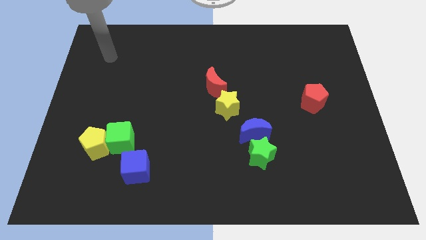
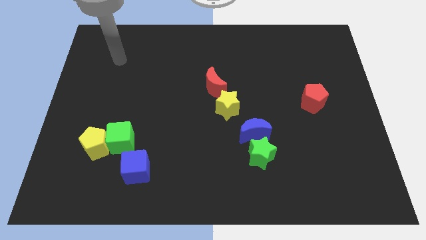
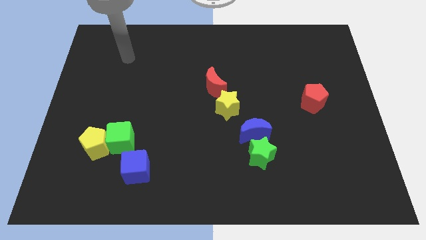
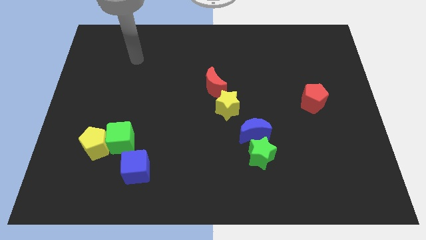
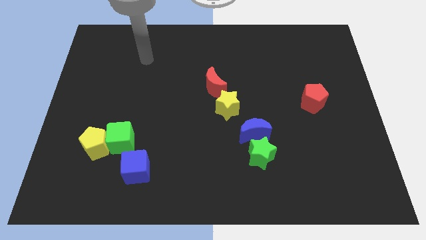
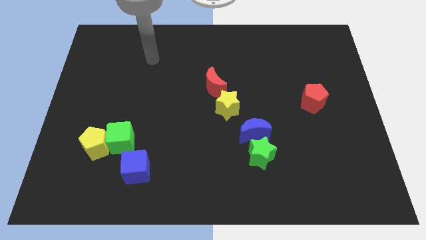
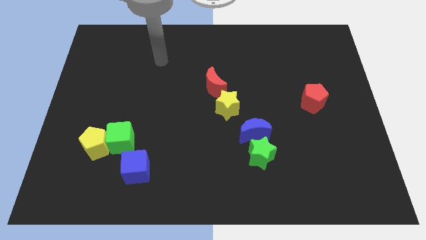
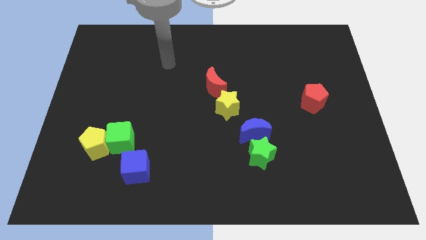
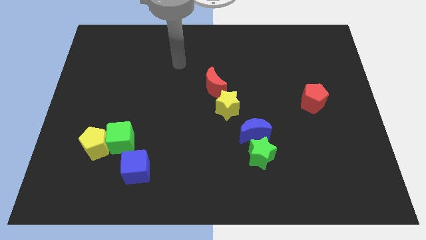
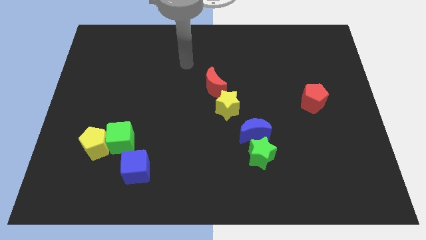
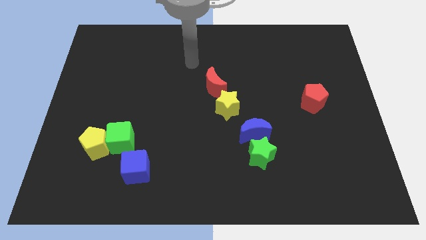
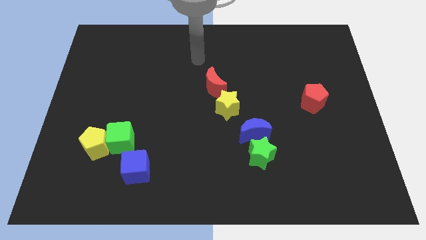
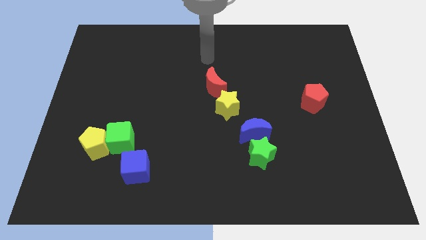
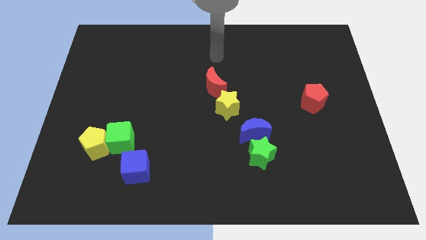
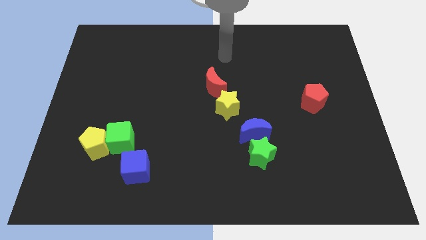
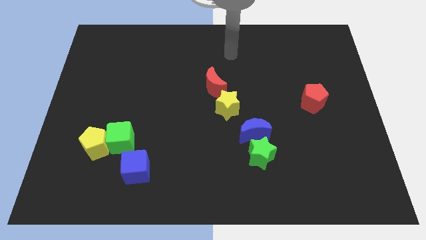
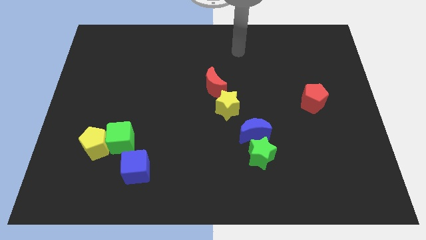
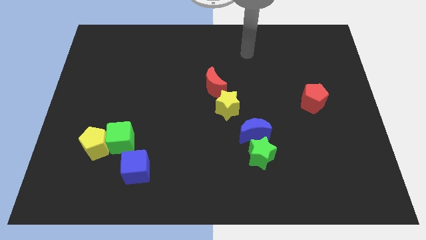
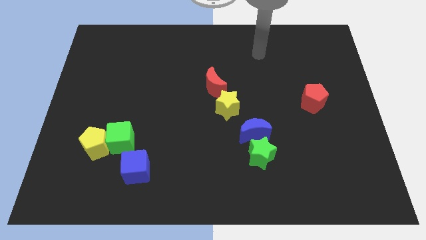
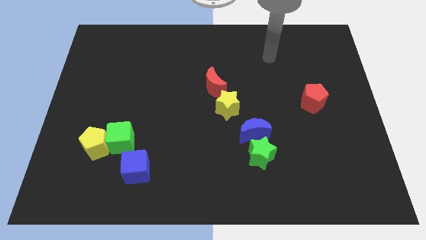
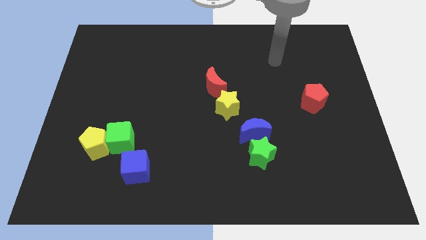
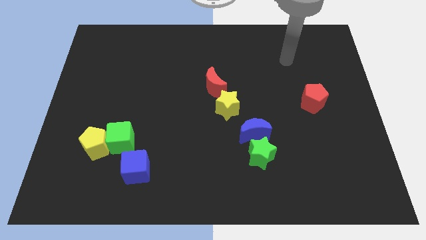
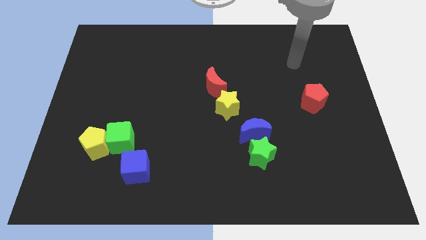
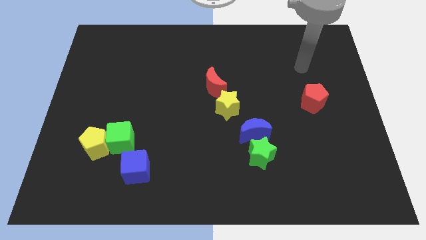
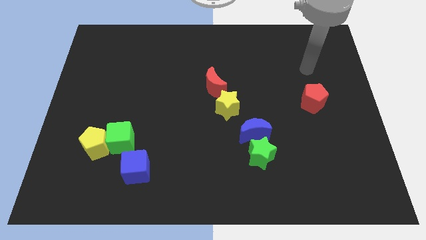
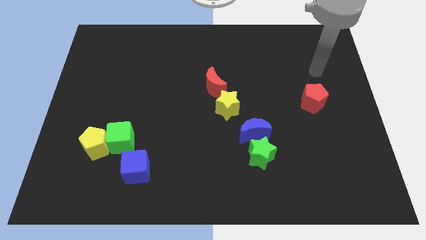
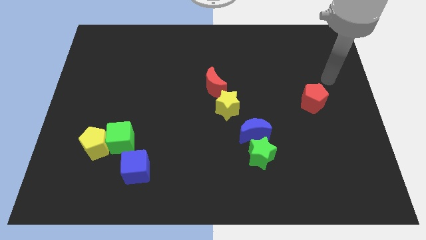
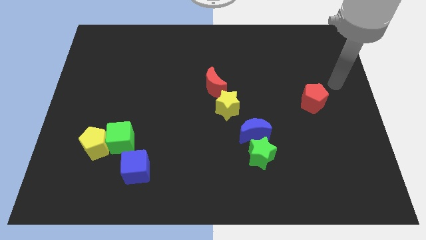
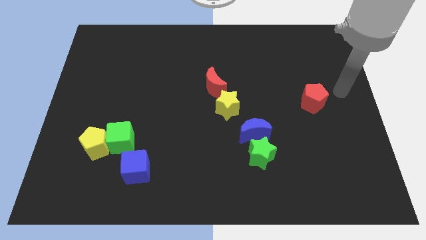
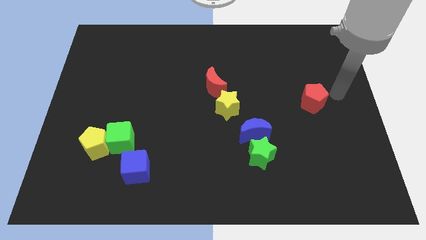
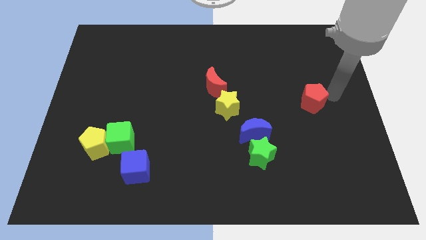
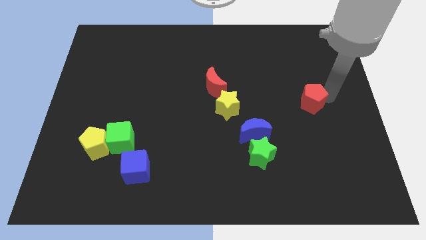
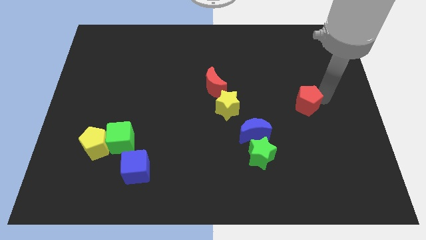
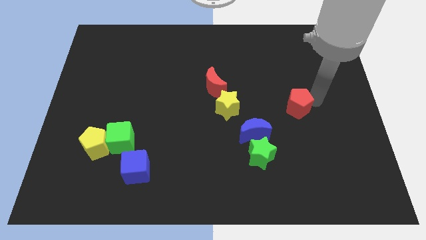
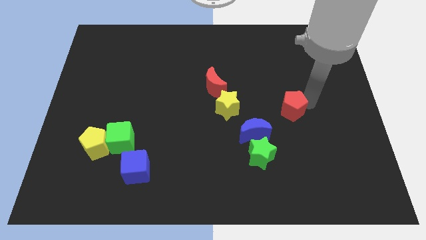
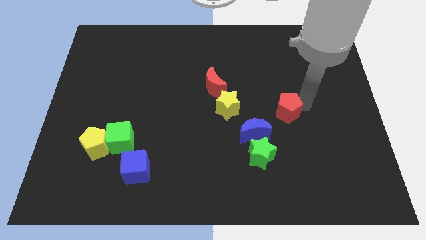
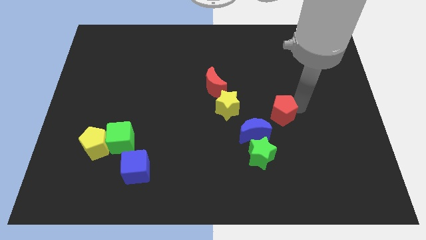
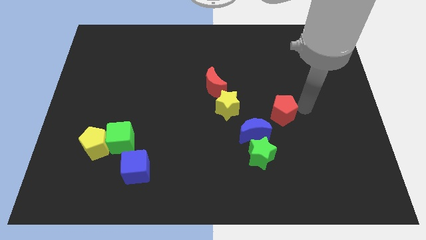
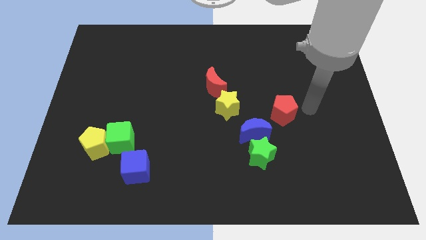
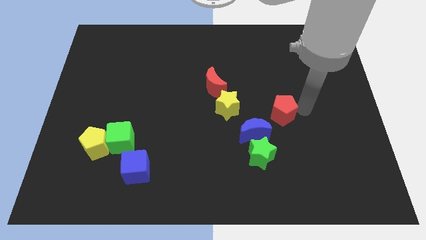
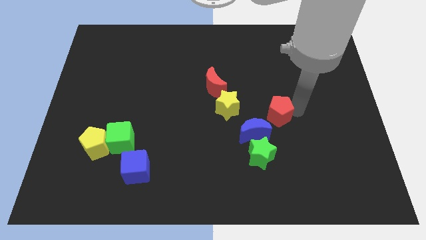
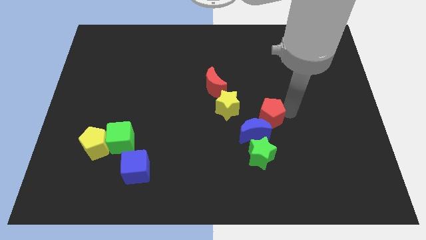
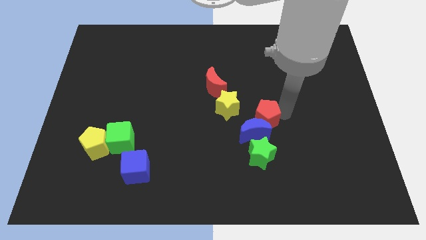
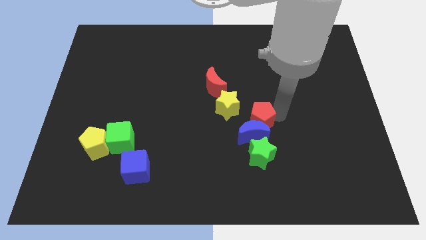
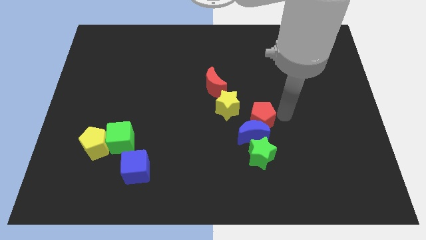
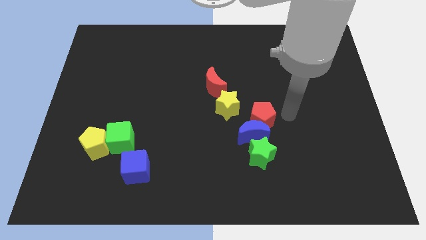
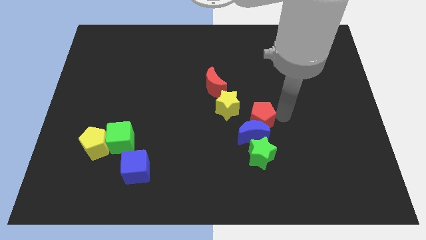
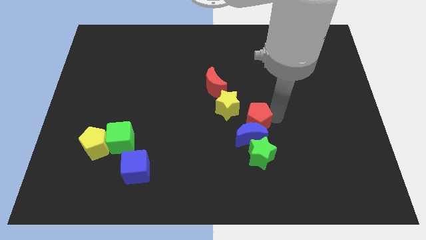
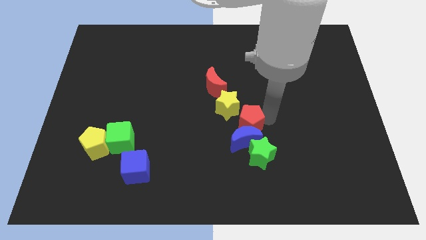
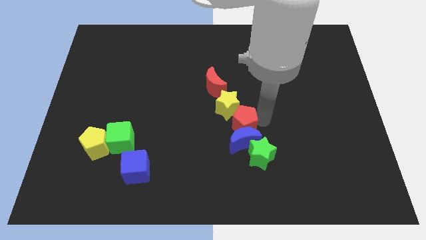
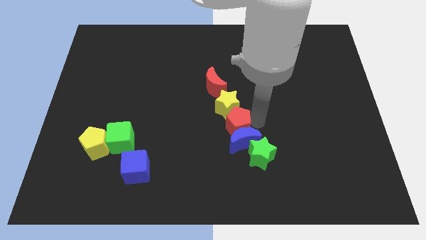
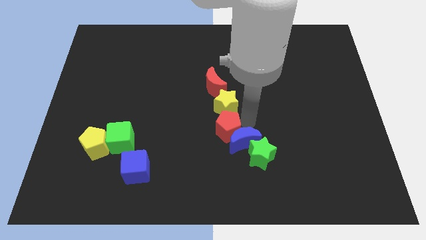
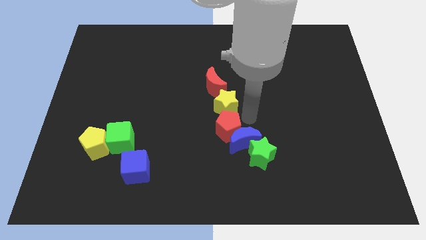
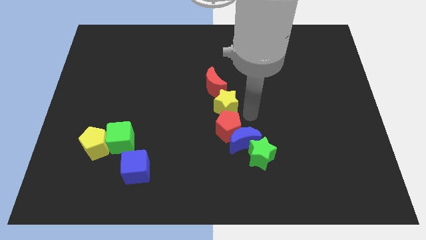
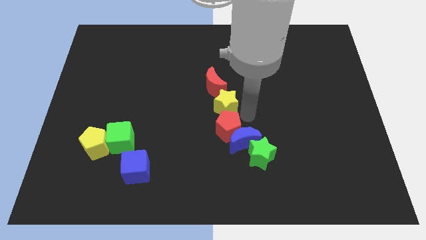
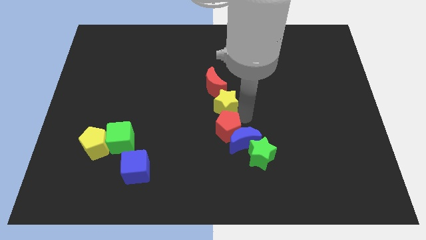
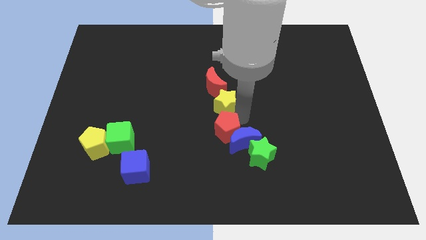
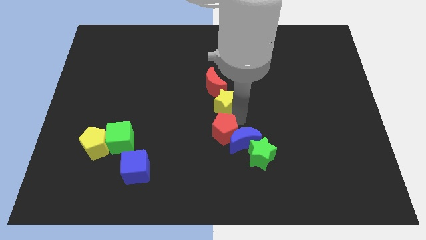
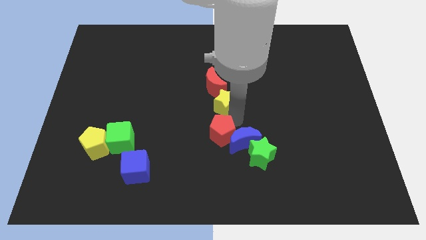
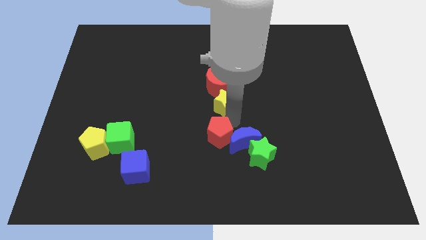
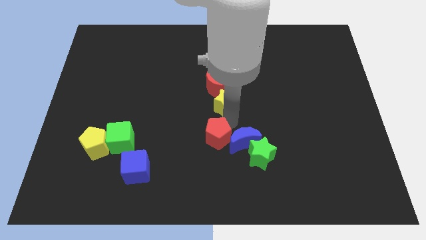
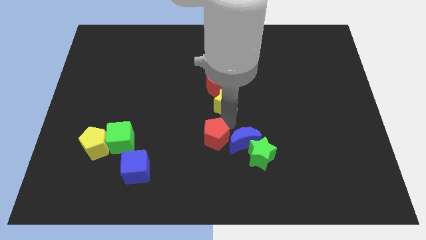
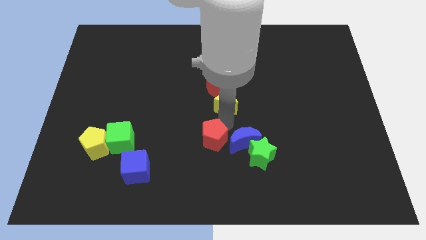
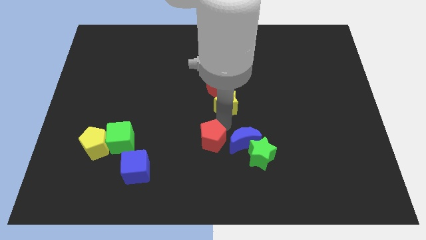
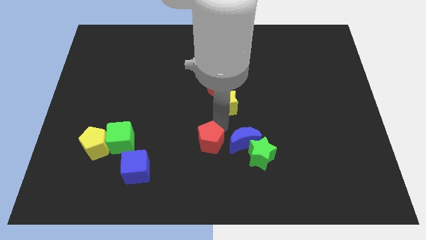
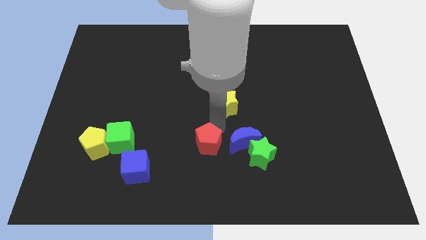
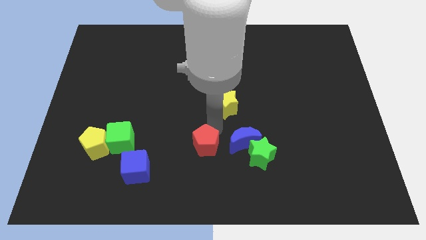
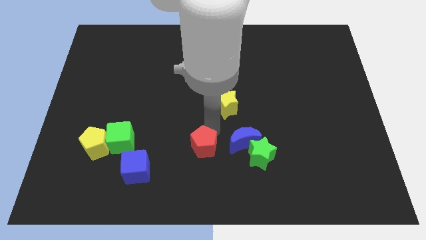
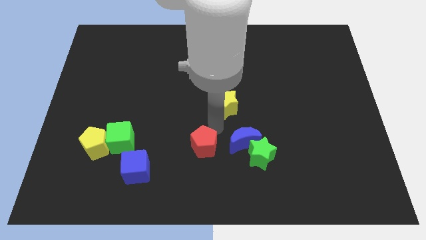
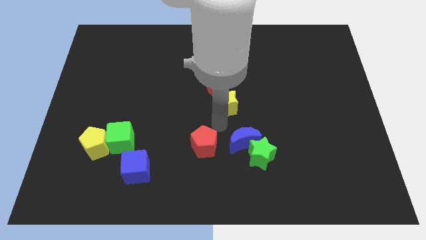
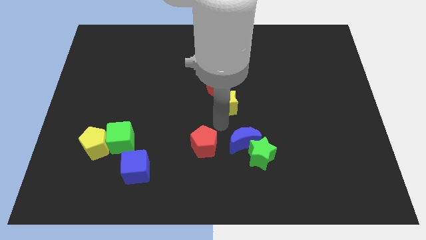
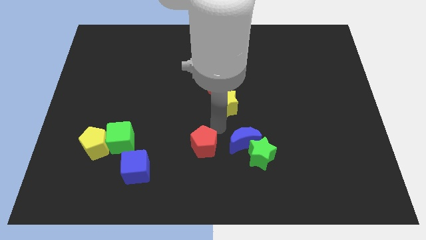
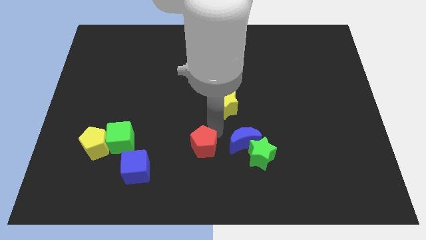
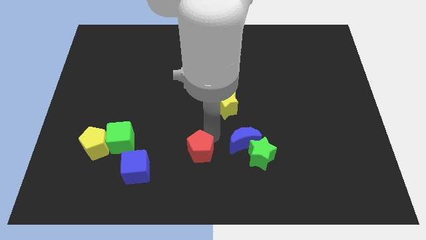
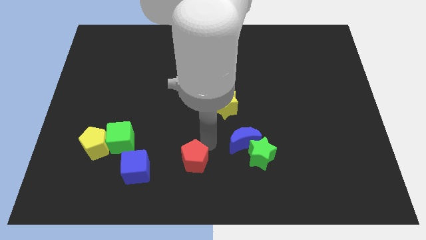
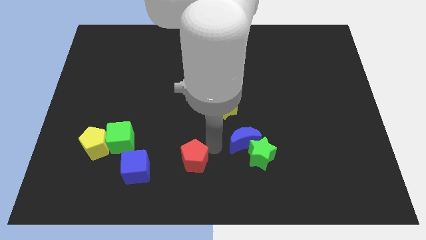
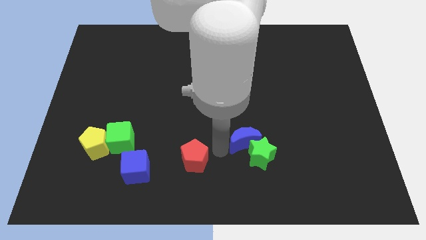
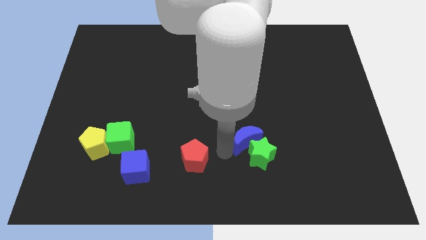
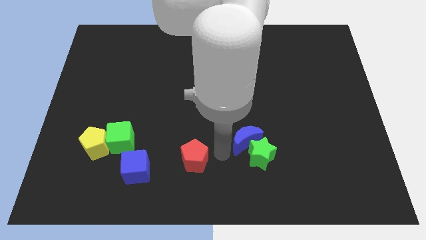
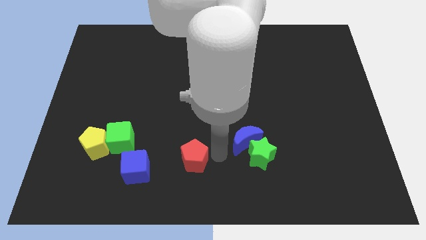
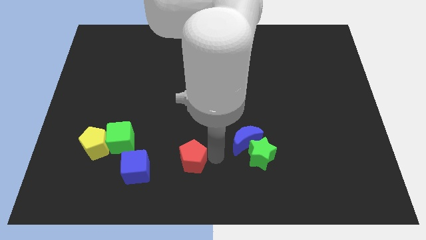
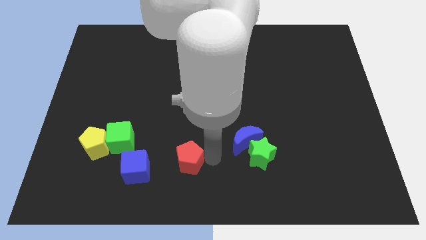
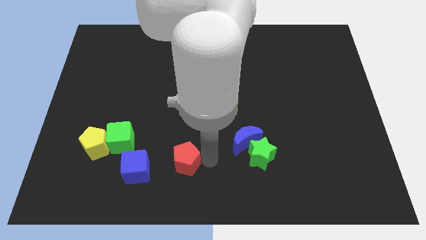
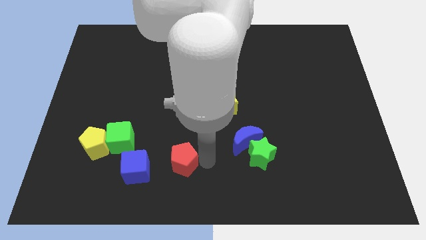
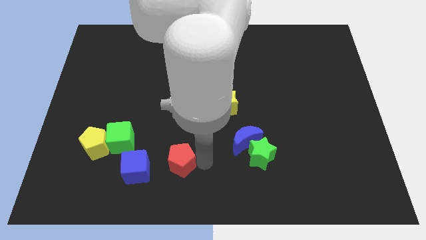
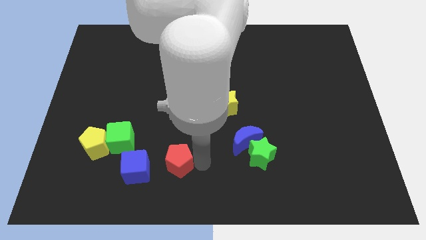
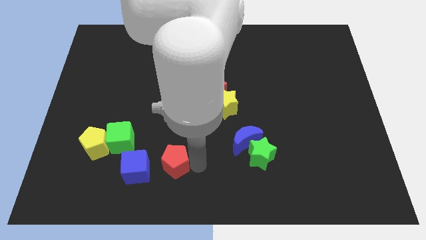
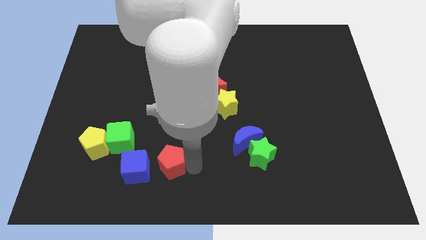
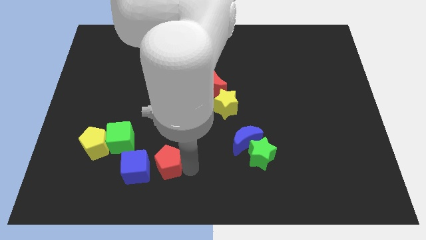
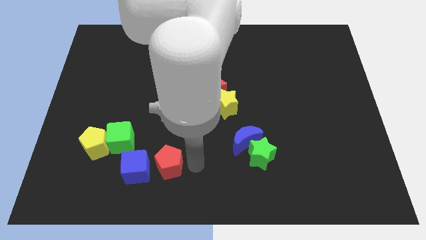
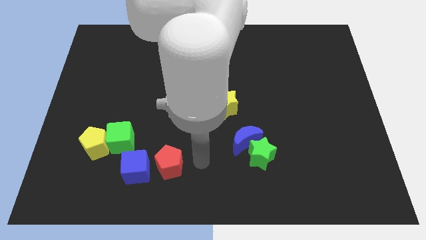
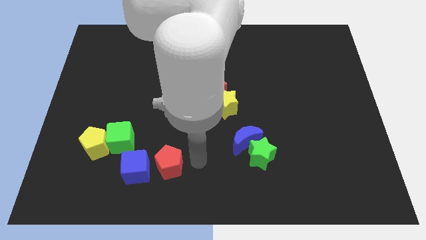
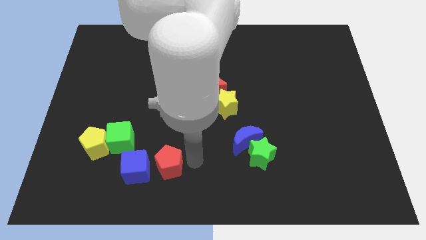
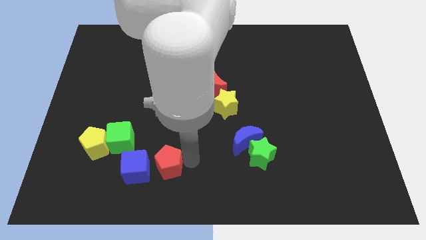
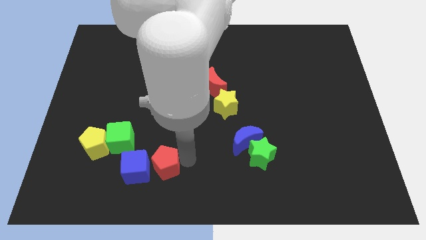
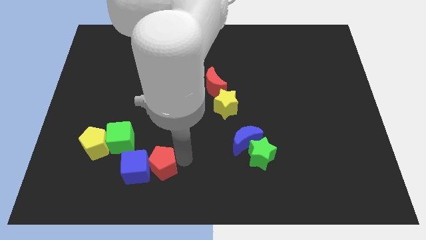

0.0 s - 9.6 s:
slide the red pentagon next to the blue cube
